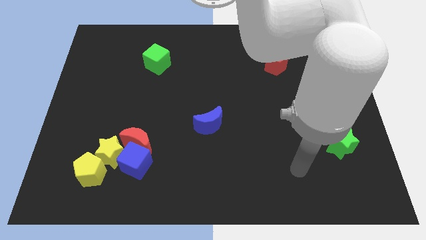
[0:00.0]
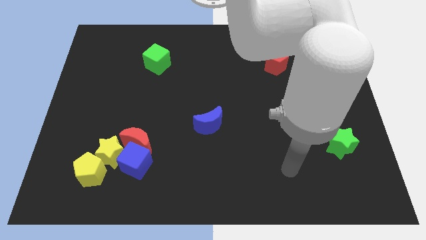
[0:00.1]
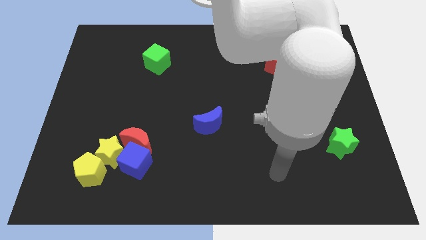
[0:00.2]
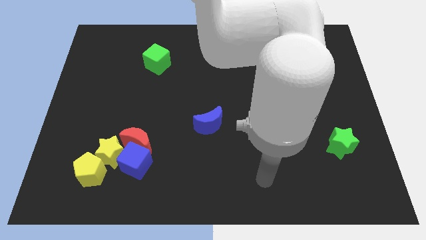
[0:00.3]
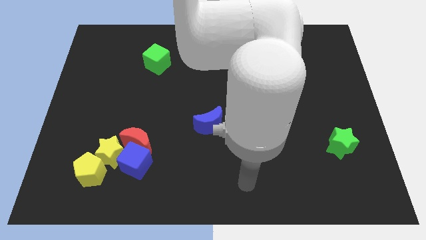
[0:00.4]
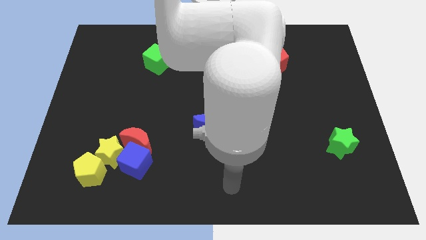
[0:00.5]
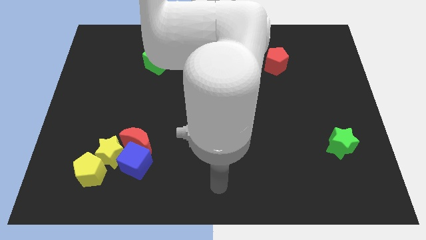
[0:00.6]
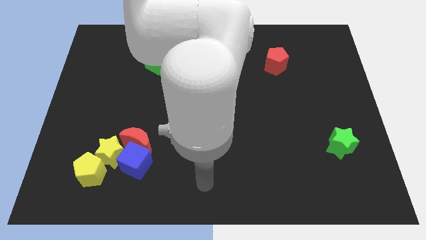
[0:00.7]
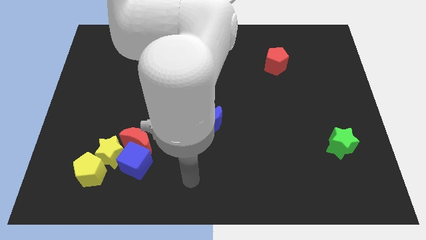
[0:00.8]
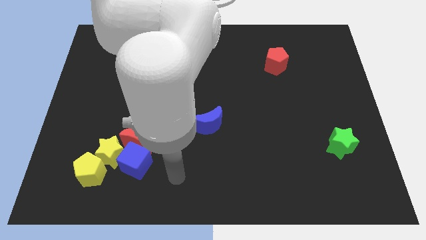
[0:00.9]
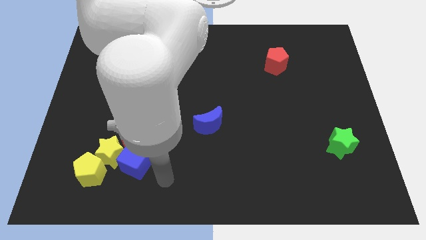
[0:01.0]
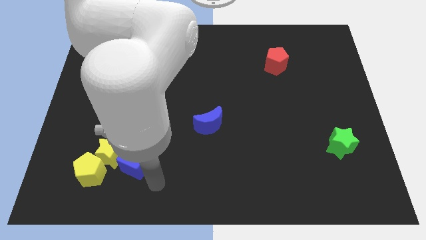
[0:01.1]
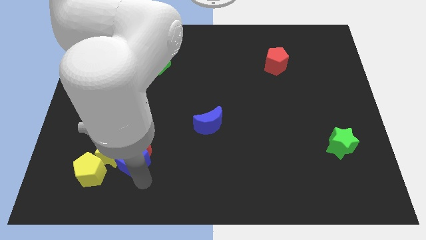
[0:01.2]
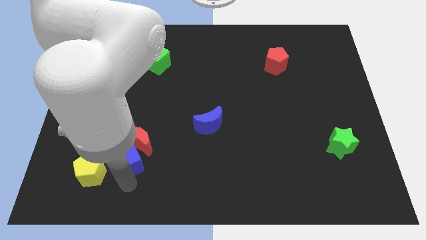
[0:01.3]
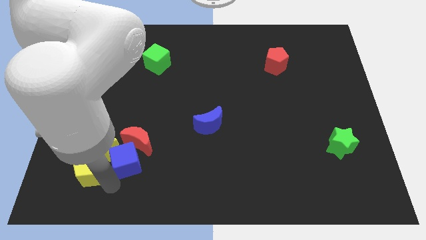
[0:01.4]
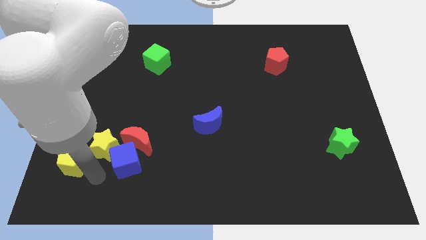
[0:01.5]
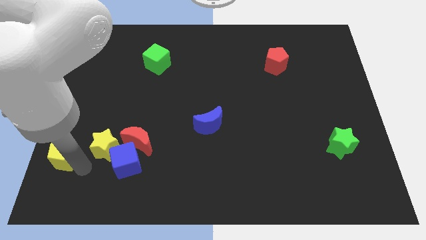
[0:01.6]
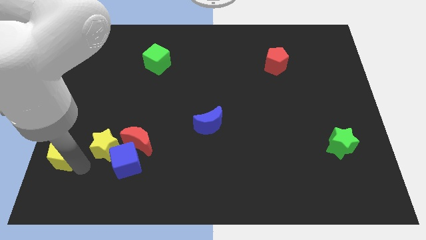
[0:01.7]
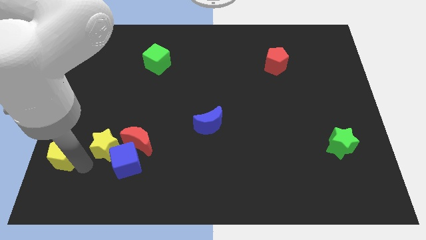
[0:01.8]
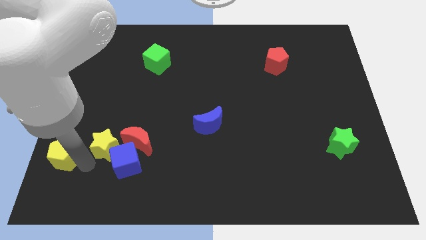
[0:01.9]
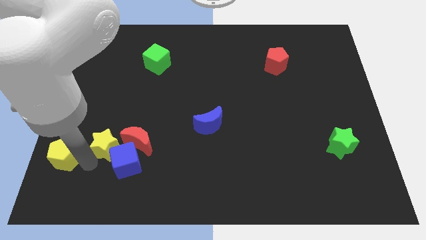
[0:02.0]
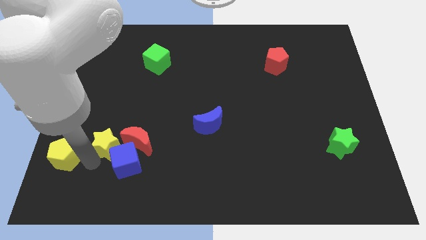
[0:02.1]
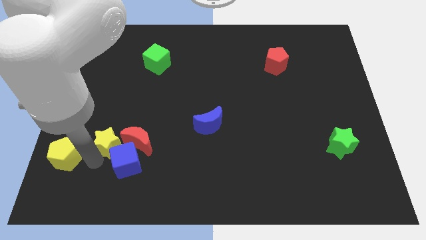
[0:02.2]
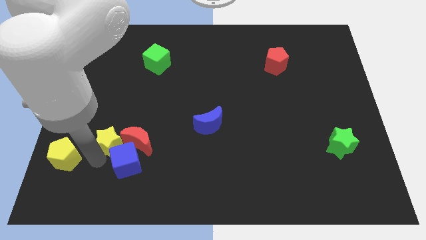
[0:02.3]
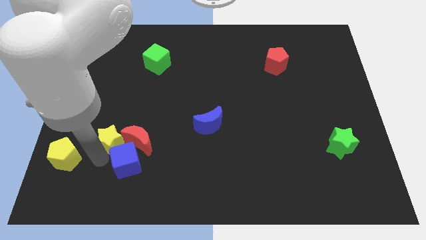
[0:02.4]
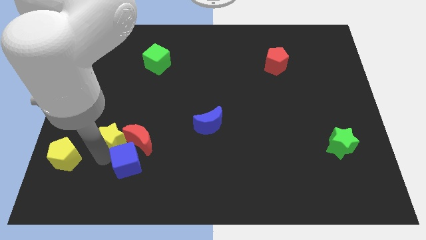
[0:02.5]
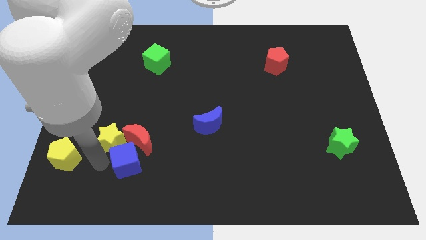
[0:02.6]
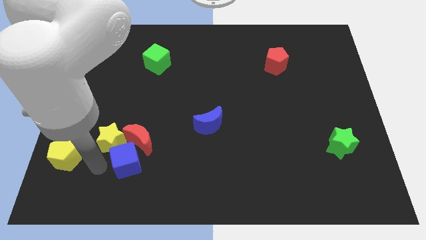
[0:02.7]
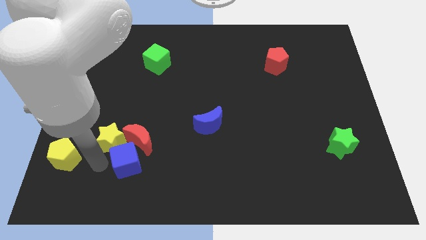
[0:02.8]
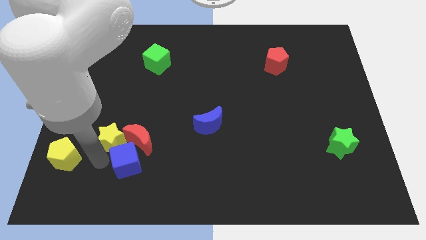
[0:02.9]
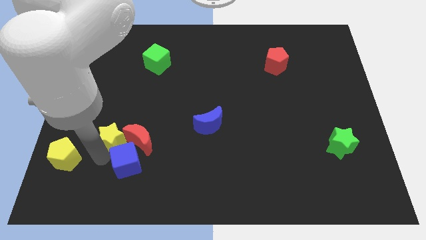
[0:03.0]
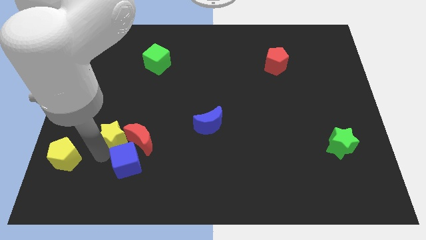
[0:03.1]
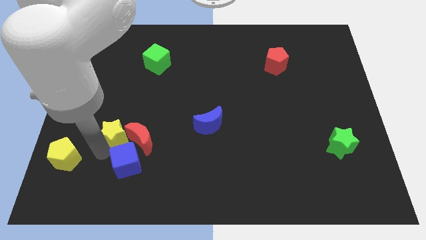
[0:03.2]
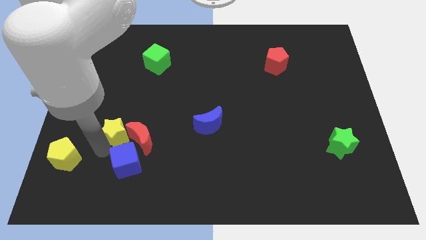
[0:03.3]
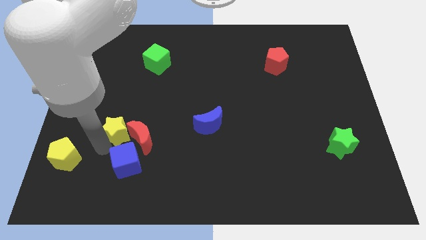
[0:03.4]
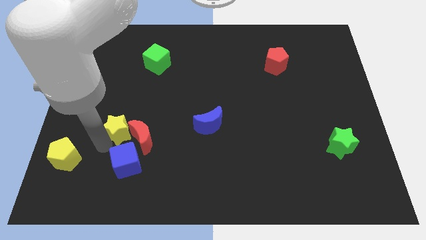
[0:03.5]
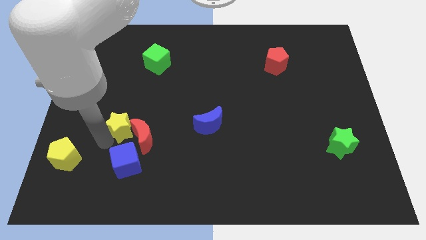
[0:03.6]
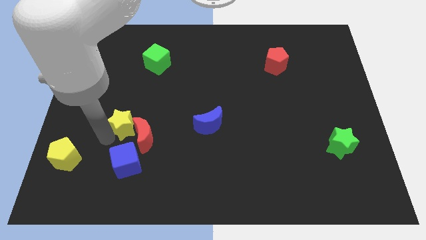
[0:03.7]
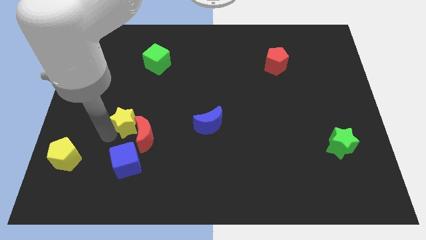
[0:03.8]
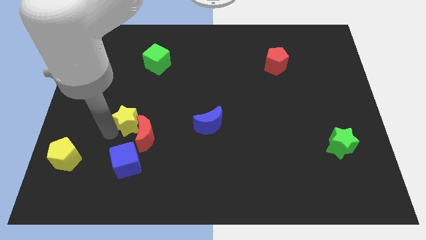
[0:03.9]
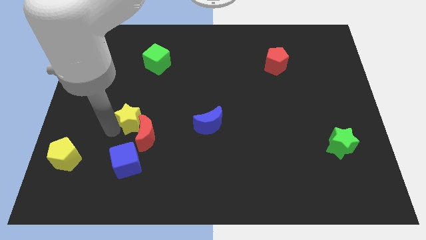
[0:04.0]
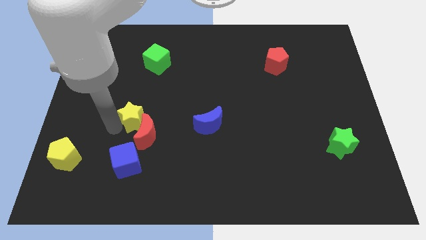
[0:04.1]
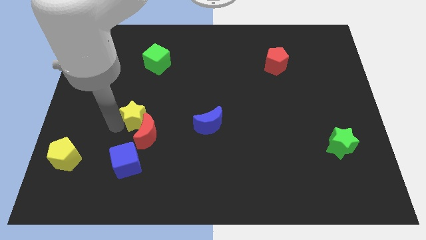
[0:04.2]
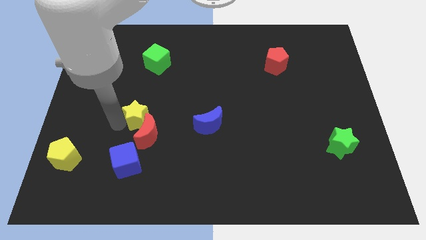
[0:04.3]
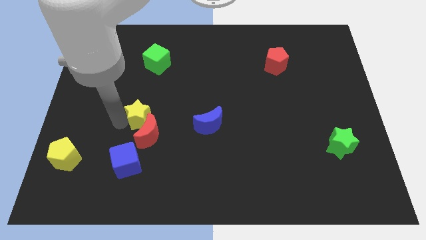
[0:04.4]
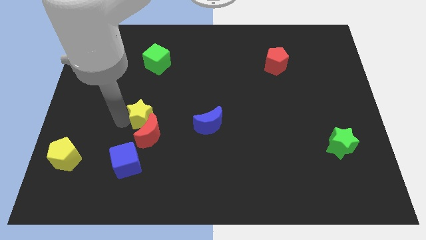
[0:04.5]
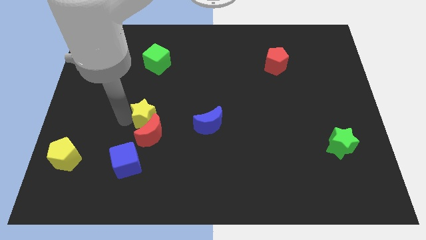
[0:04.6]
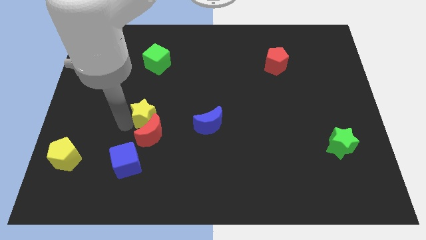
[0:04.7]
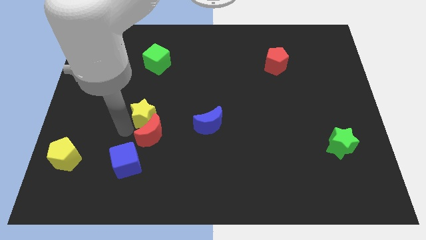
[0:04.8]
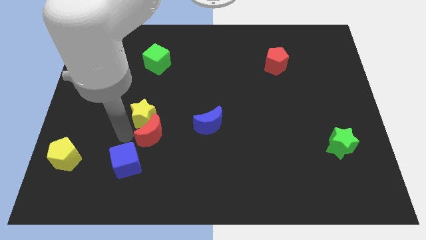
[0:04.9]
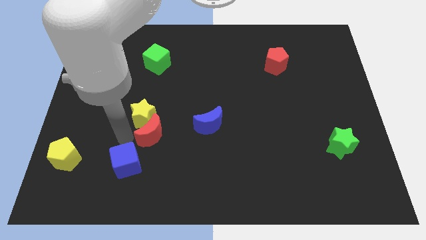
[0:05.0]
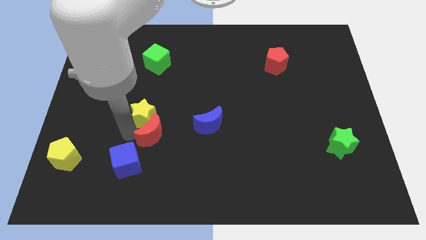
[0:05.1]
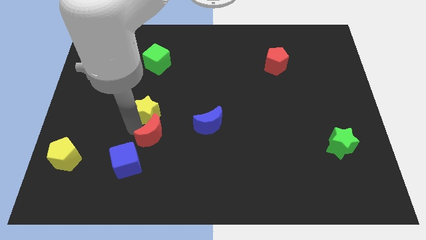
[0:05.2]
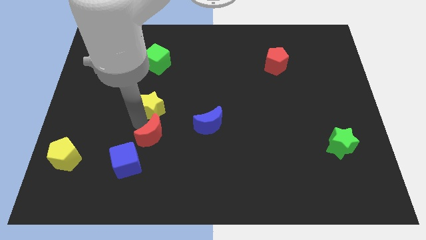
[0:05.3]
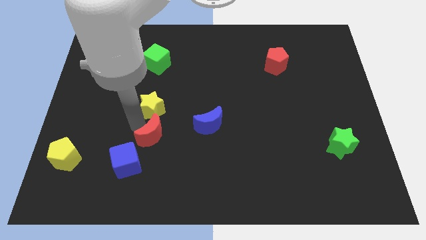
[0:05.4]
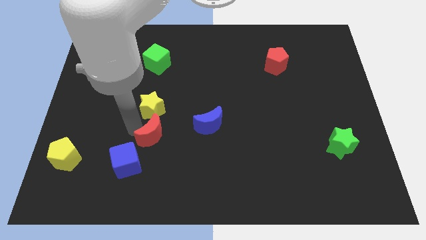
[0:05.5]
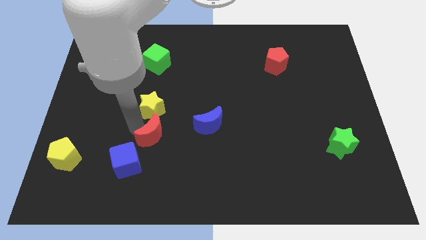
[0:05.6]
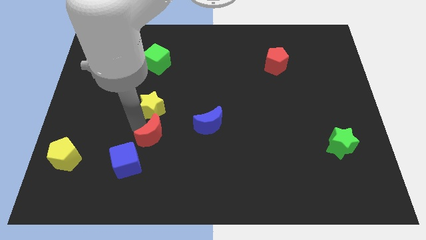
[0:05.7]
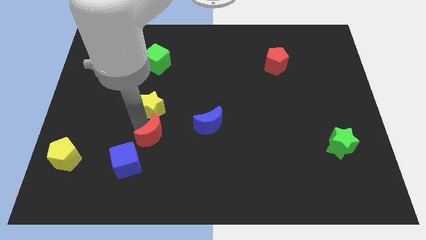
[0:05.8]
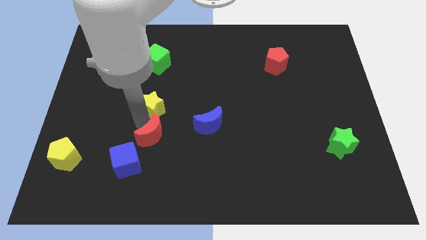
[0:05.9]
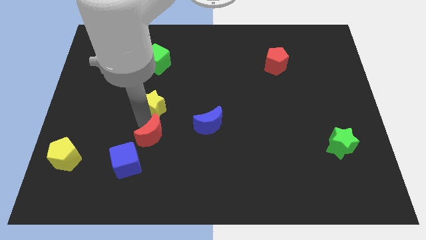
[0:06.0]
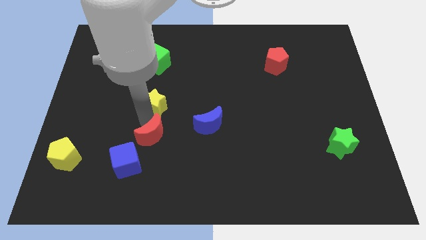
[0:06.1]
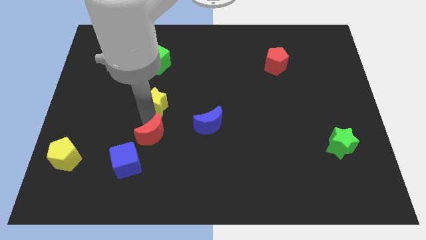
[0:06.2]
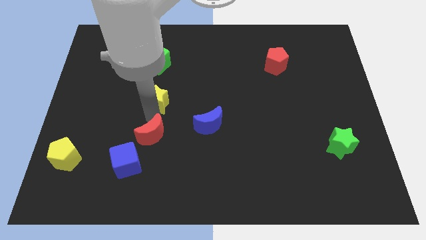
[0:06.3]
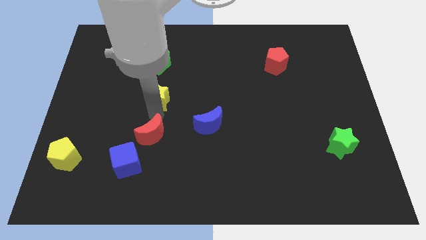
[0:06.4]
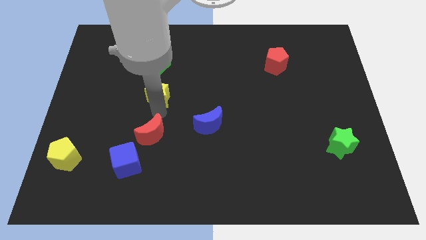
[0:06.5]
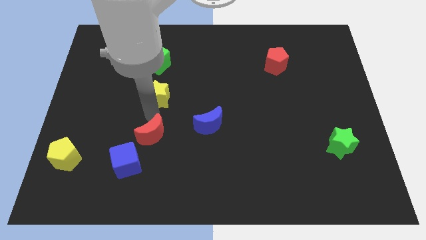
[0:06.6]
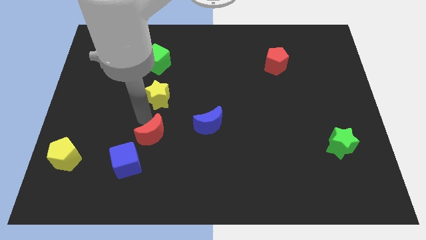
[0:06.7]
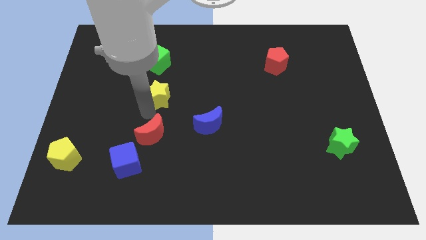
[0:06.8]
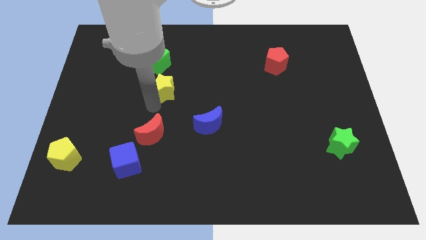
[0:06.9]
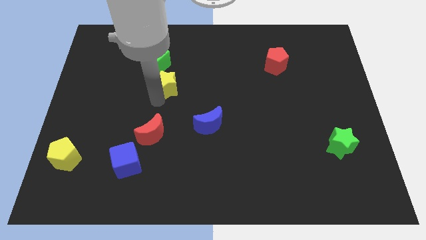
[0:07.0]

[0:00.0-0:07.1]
put the yellow star to the bottom right side of the green cube
